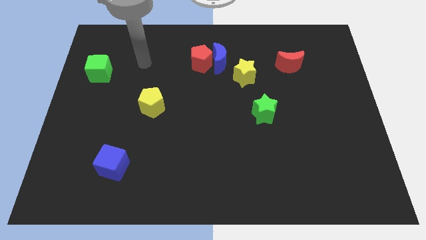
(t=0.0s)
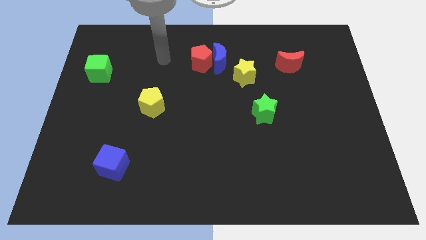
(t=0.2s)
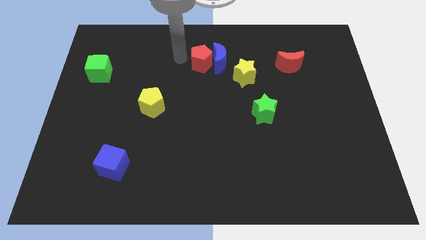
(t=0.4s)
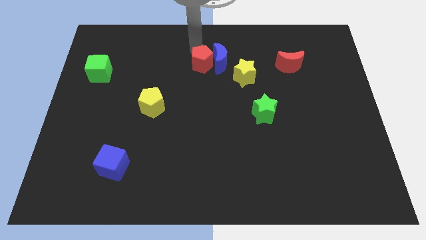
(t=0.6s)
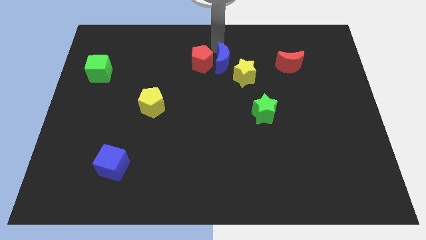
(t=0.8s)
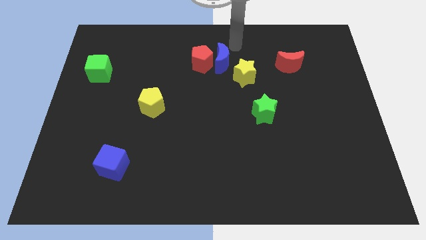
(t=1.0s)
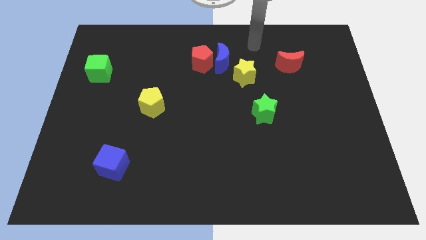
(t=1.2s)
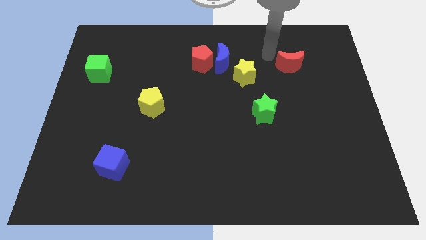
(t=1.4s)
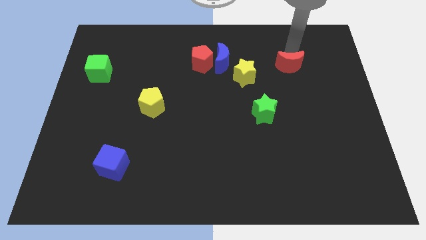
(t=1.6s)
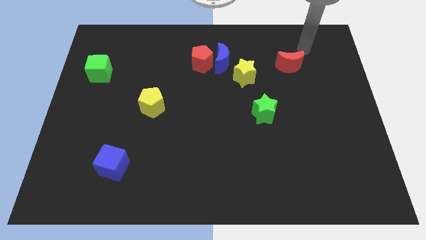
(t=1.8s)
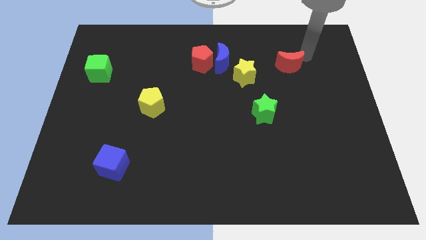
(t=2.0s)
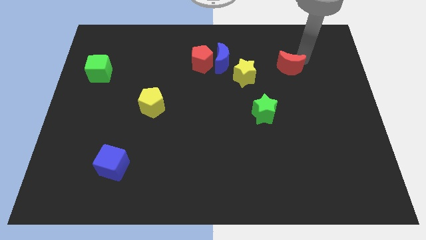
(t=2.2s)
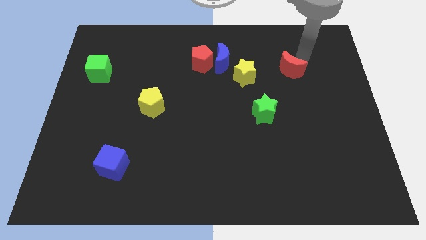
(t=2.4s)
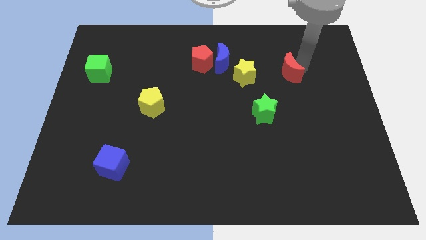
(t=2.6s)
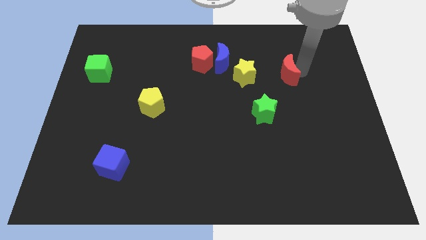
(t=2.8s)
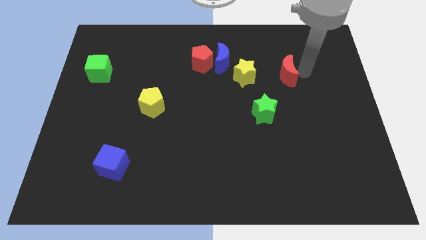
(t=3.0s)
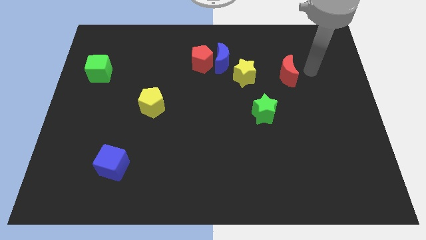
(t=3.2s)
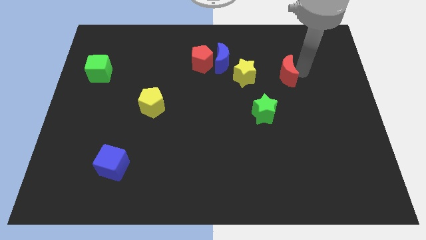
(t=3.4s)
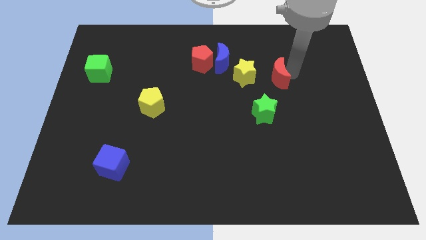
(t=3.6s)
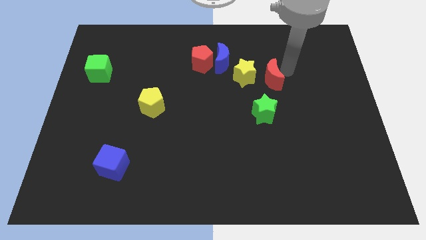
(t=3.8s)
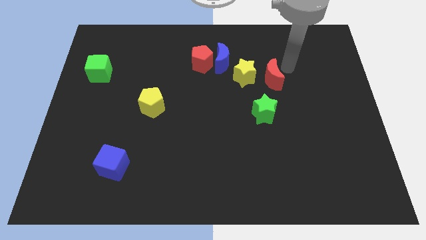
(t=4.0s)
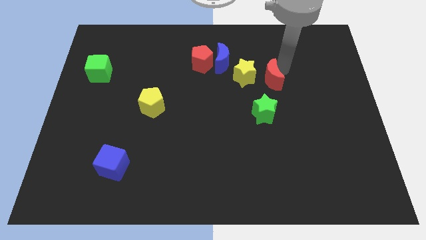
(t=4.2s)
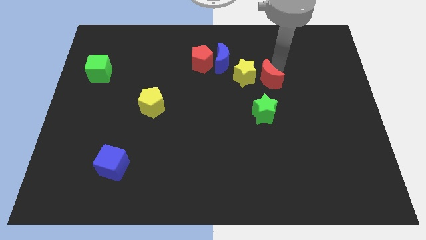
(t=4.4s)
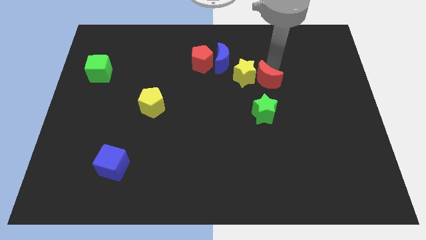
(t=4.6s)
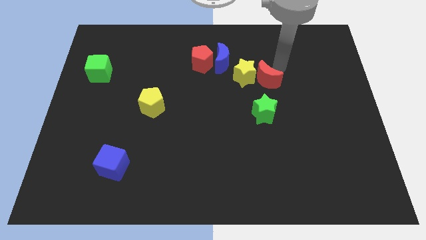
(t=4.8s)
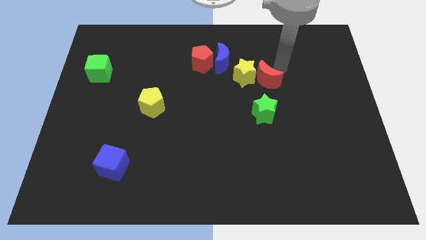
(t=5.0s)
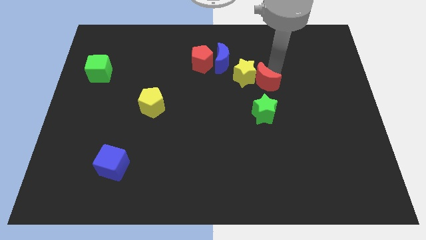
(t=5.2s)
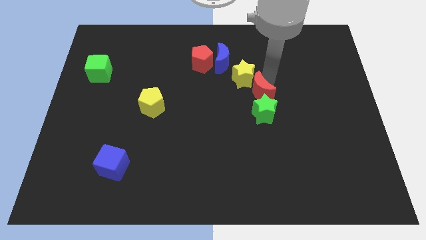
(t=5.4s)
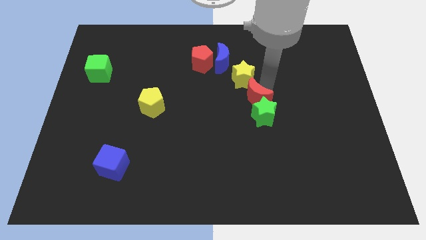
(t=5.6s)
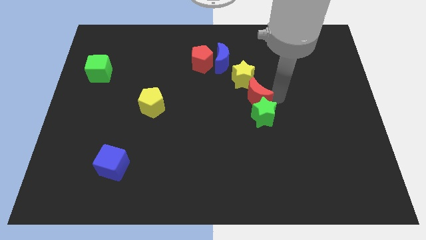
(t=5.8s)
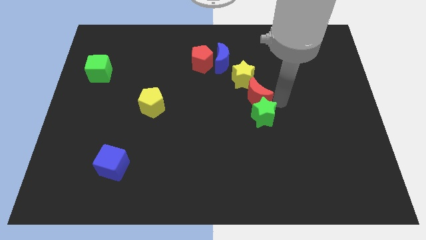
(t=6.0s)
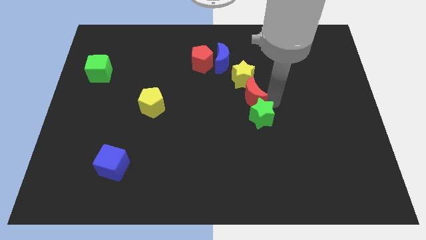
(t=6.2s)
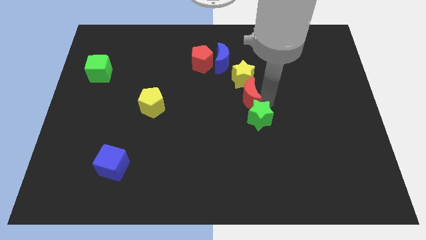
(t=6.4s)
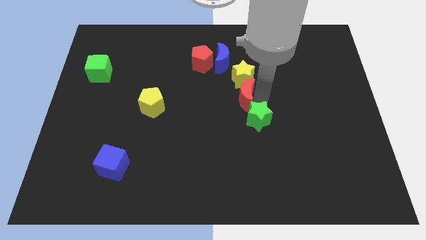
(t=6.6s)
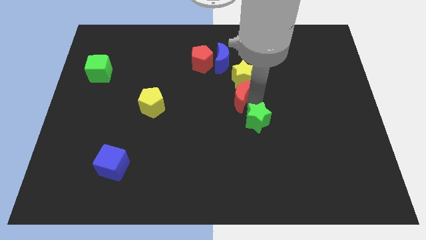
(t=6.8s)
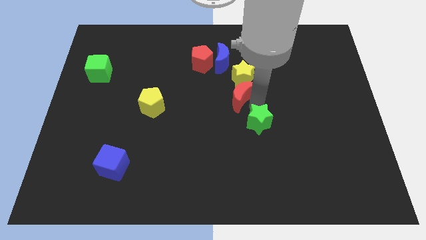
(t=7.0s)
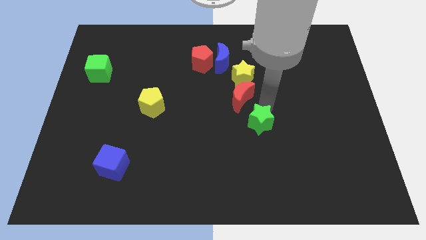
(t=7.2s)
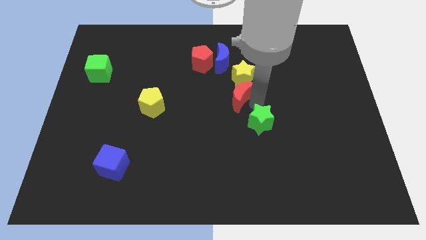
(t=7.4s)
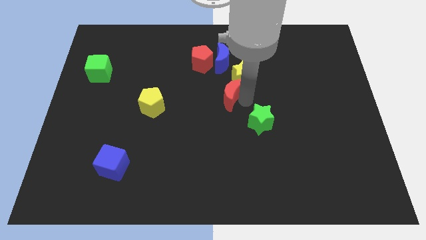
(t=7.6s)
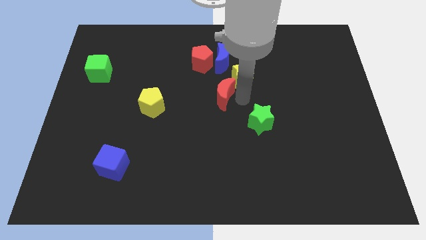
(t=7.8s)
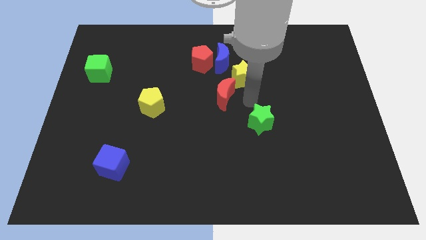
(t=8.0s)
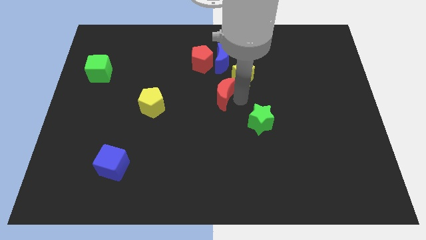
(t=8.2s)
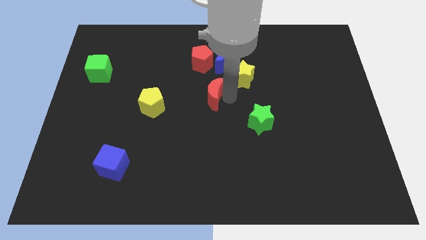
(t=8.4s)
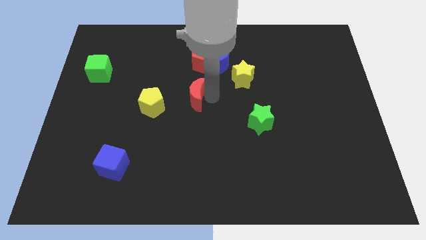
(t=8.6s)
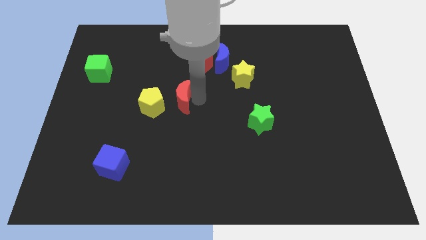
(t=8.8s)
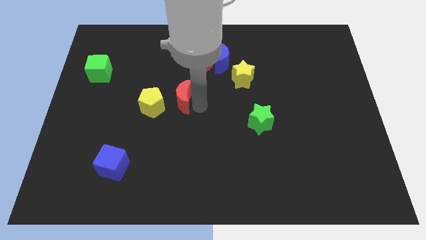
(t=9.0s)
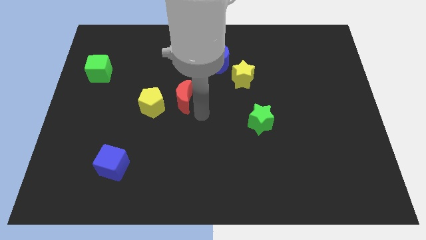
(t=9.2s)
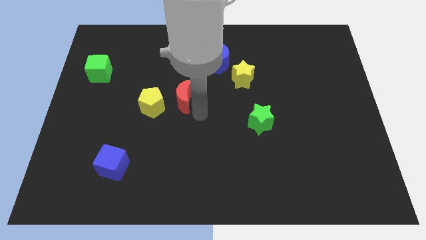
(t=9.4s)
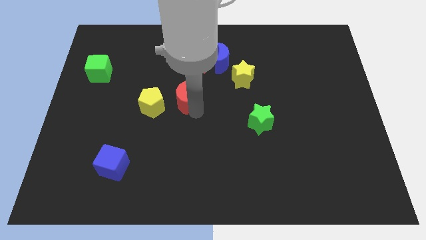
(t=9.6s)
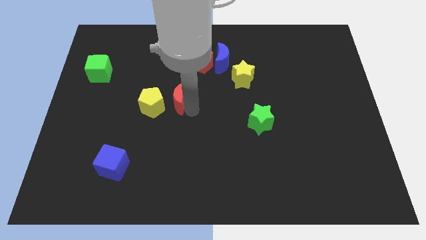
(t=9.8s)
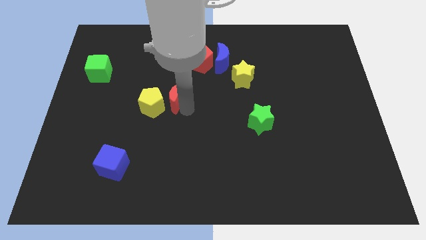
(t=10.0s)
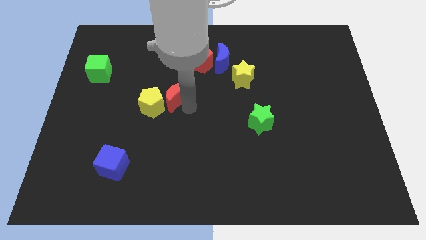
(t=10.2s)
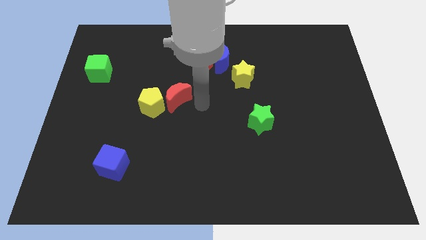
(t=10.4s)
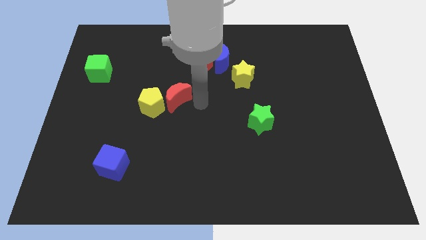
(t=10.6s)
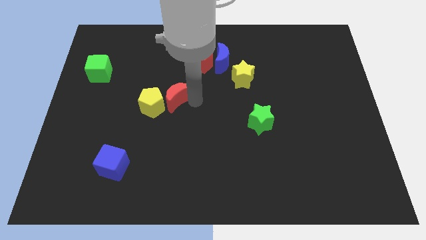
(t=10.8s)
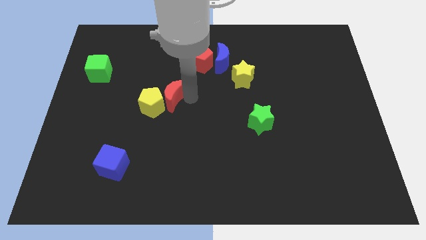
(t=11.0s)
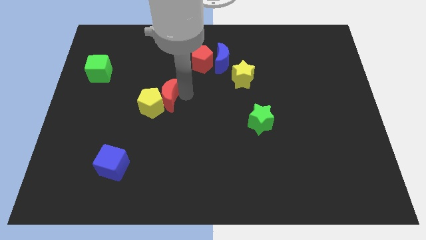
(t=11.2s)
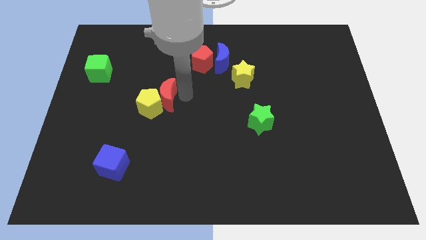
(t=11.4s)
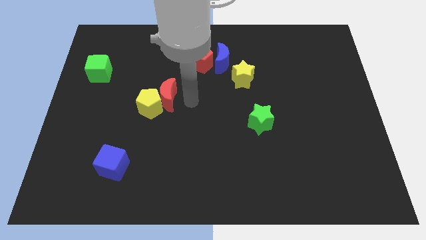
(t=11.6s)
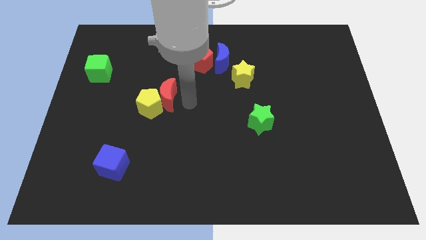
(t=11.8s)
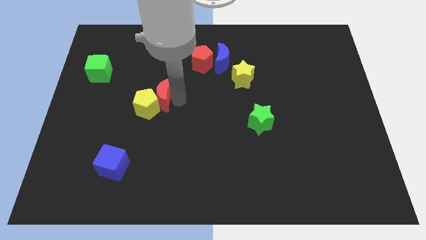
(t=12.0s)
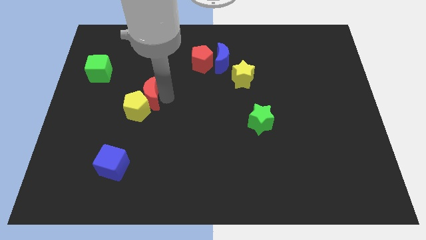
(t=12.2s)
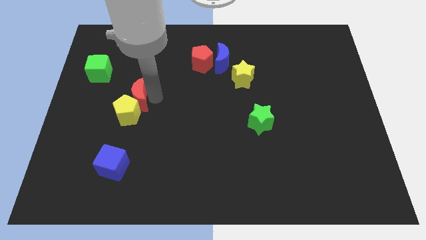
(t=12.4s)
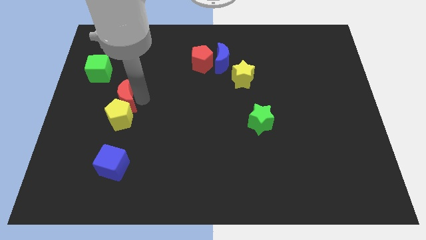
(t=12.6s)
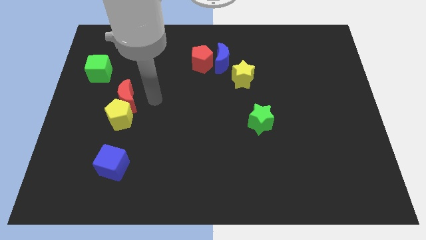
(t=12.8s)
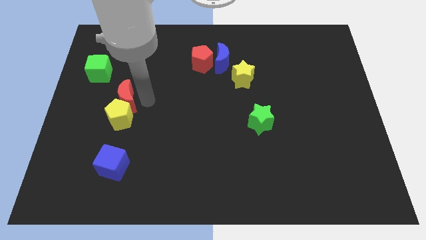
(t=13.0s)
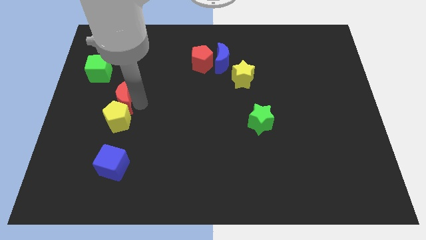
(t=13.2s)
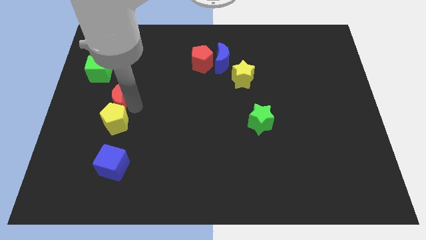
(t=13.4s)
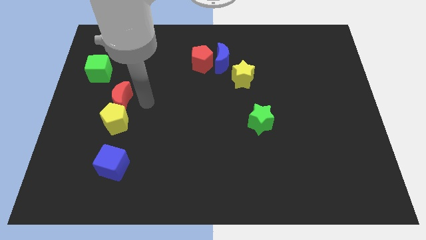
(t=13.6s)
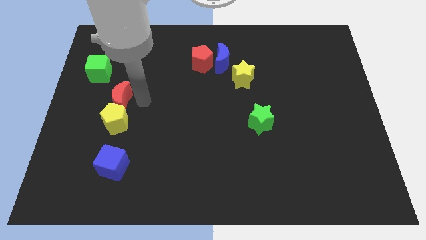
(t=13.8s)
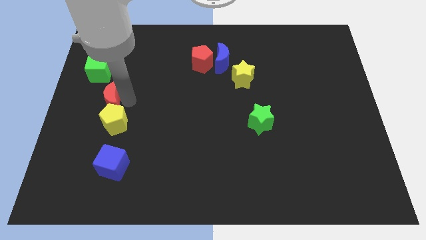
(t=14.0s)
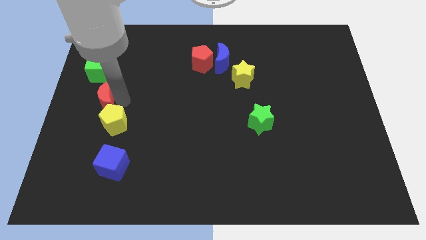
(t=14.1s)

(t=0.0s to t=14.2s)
put the red moon to the left side of the board
